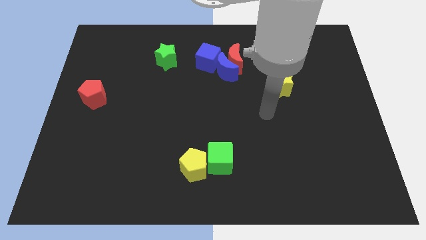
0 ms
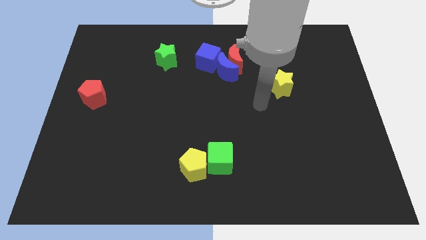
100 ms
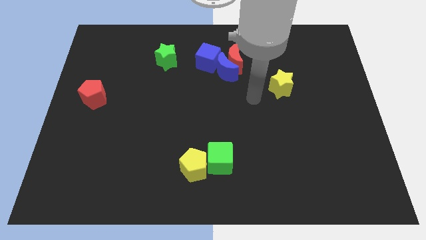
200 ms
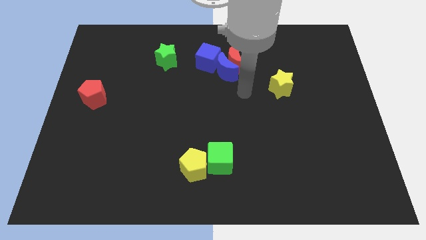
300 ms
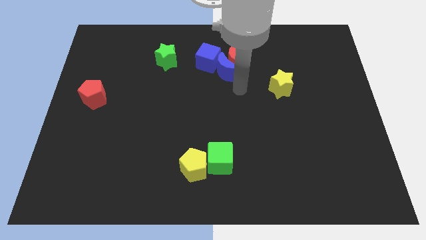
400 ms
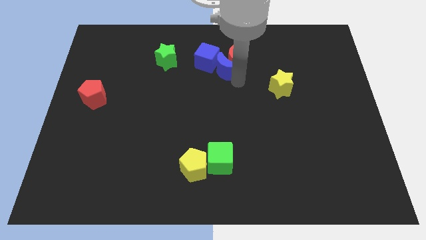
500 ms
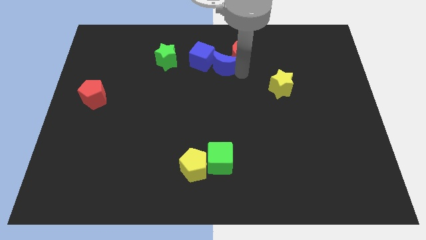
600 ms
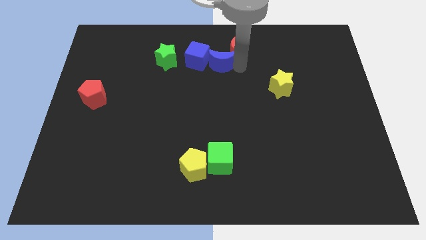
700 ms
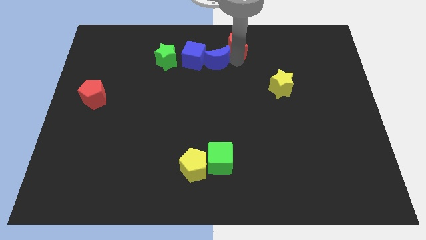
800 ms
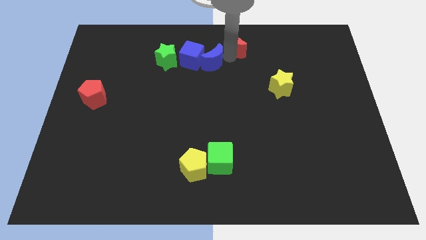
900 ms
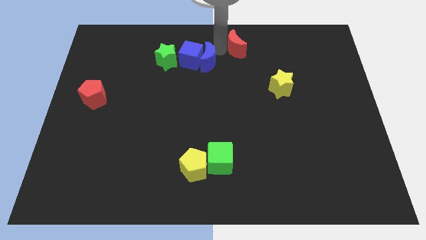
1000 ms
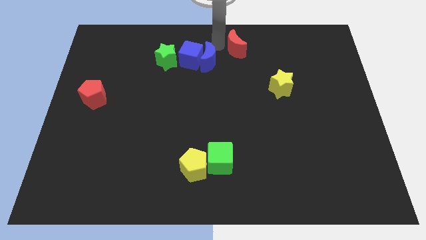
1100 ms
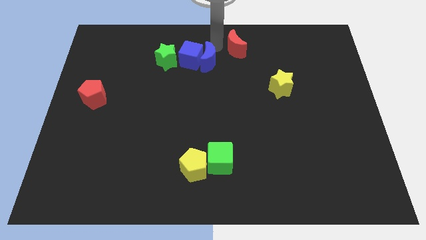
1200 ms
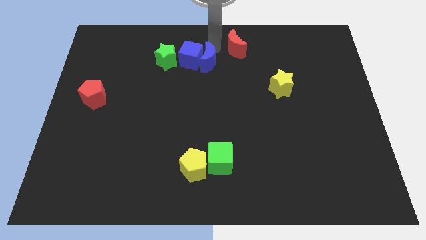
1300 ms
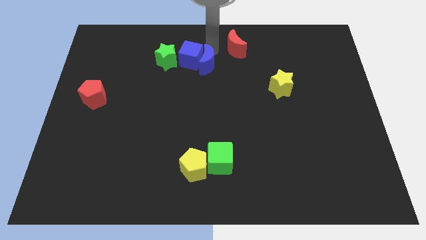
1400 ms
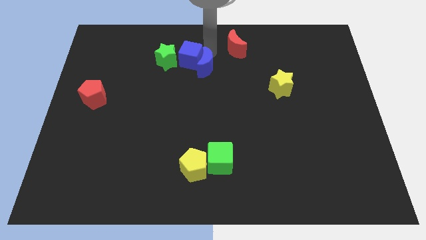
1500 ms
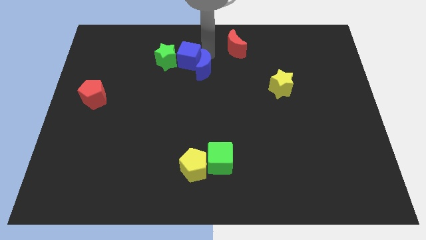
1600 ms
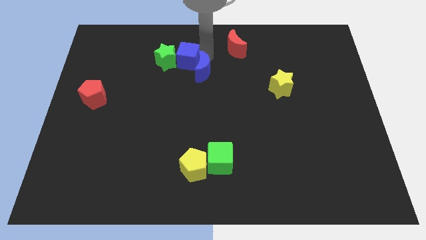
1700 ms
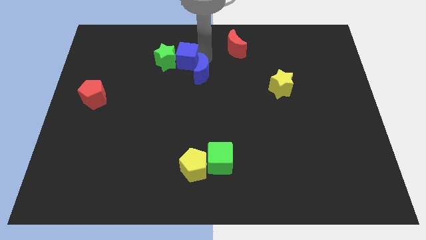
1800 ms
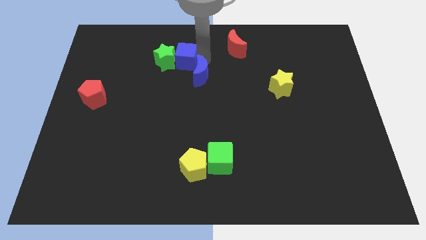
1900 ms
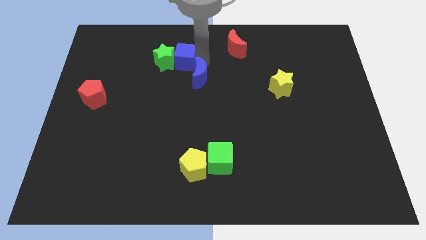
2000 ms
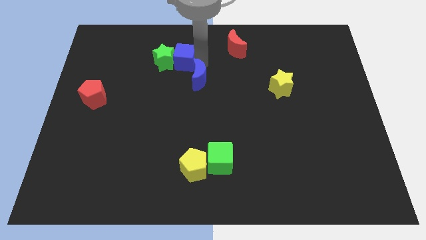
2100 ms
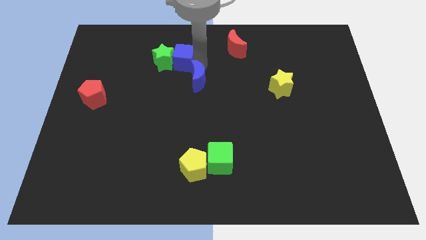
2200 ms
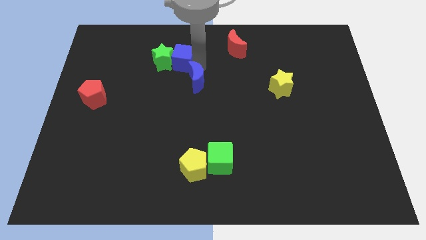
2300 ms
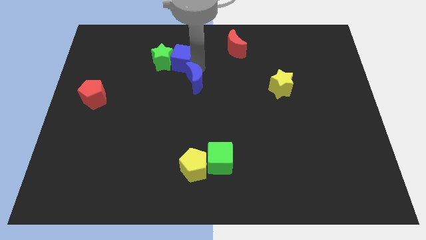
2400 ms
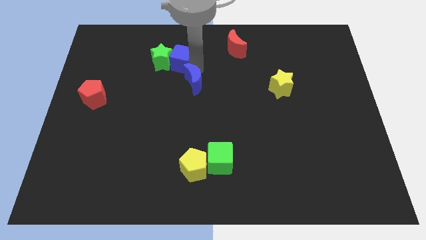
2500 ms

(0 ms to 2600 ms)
separate the blue moon from the red moon and blue cube

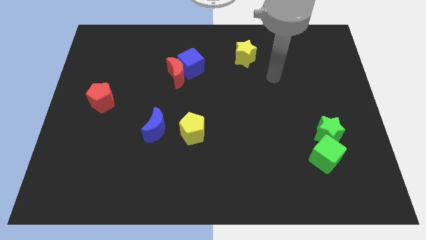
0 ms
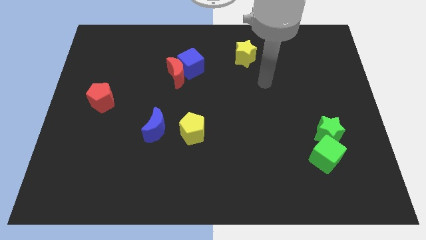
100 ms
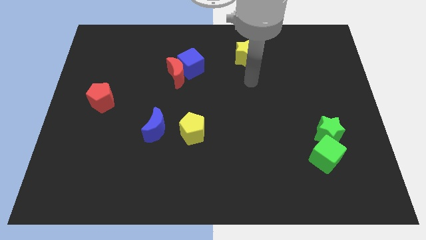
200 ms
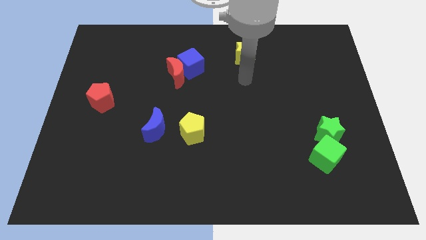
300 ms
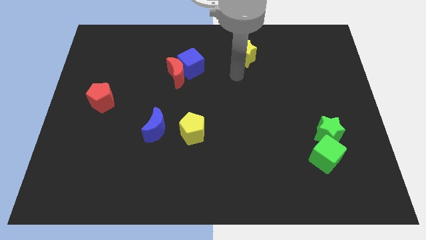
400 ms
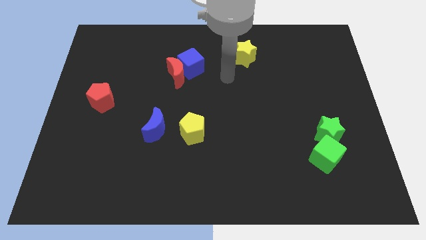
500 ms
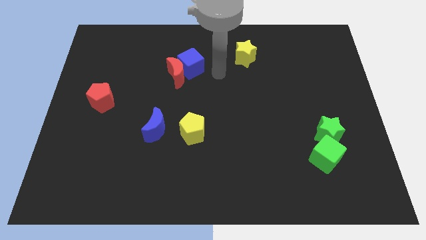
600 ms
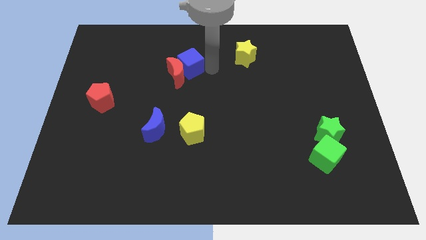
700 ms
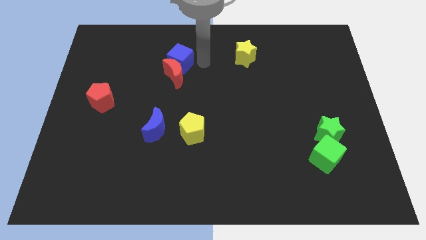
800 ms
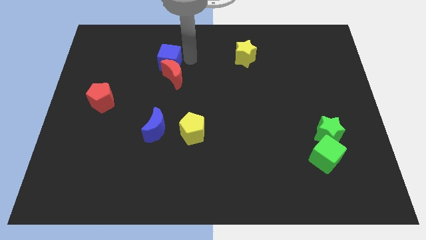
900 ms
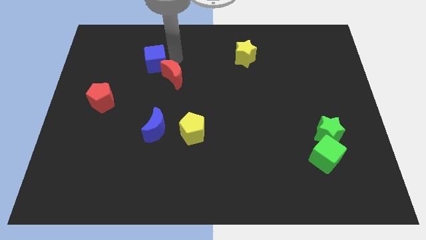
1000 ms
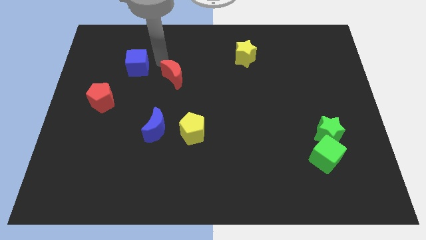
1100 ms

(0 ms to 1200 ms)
pull the red moon apart from the blue cube

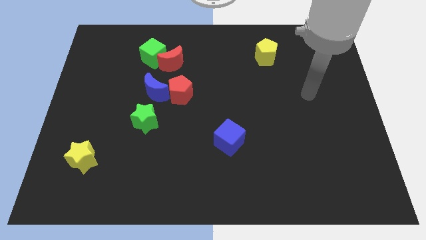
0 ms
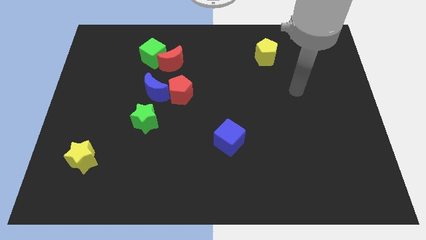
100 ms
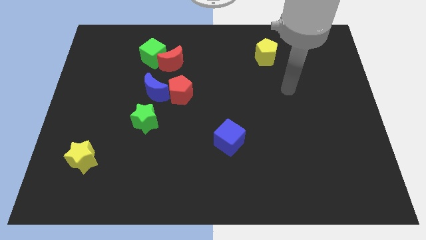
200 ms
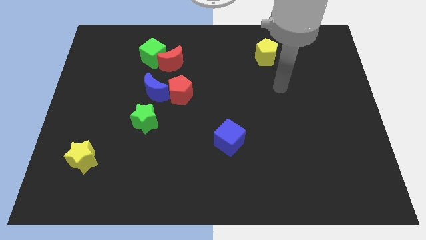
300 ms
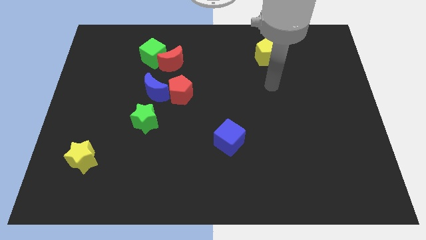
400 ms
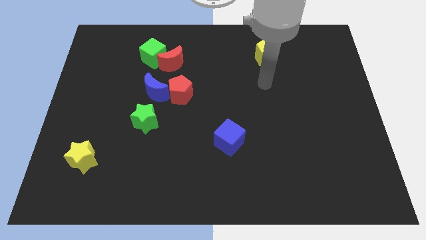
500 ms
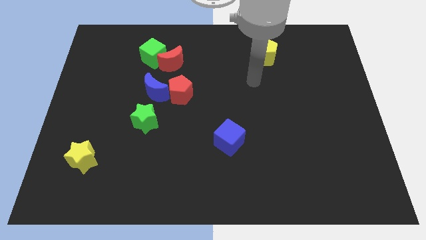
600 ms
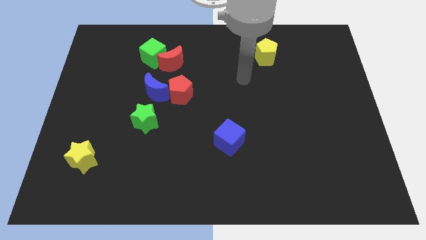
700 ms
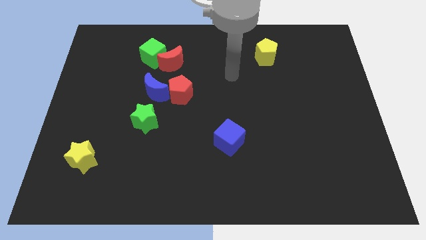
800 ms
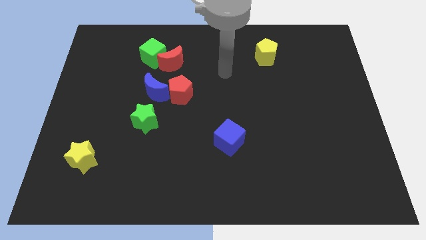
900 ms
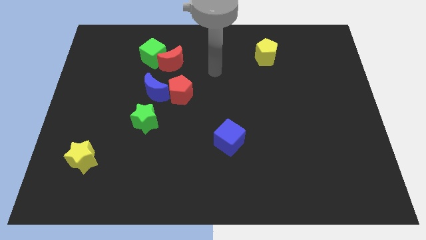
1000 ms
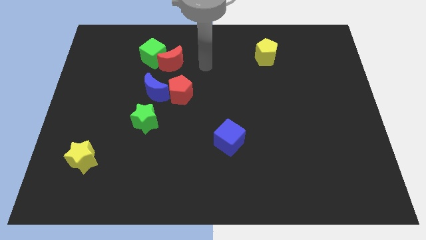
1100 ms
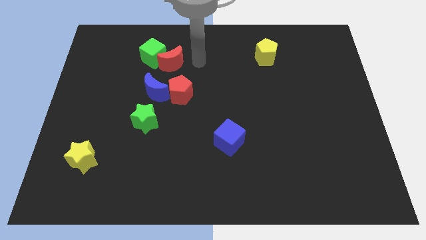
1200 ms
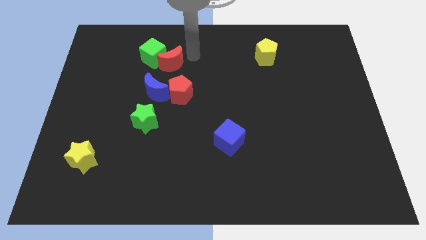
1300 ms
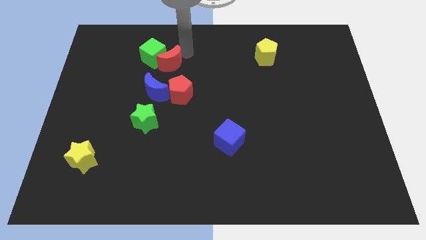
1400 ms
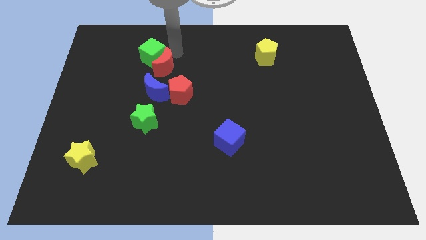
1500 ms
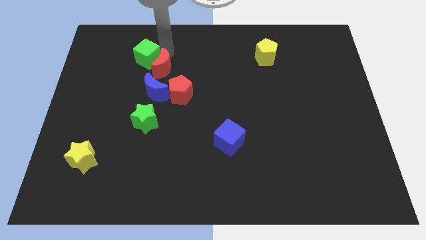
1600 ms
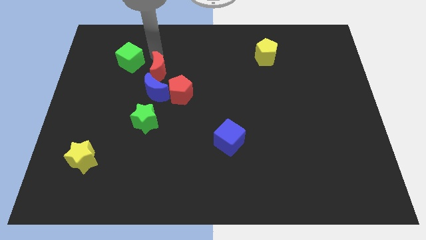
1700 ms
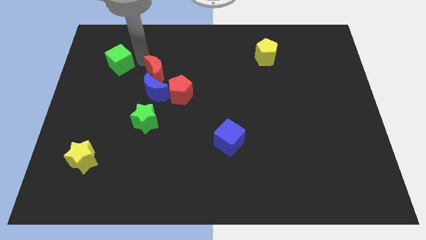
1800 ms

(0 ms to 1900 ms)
separate the red moon from the green cube

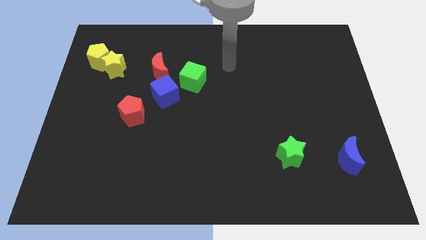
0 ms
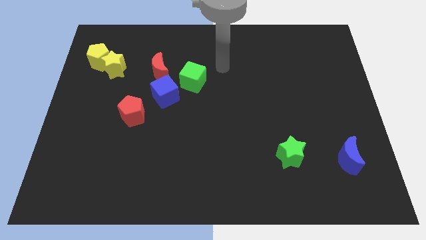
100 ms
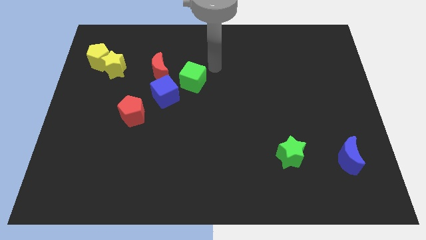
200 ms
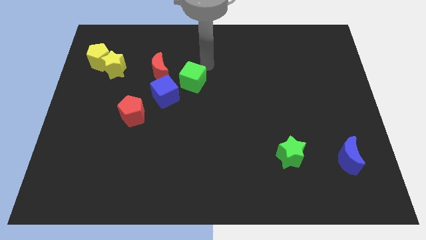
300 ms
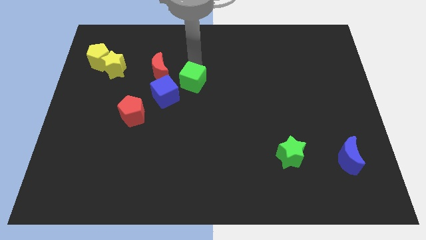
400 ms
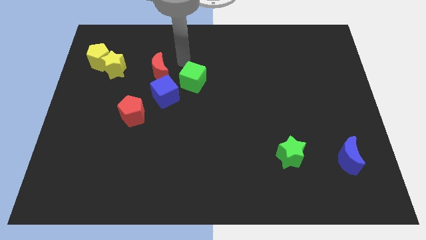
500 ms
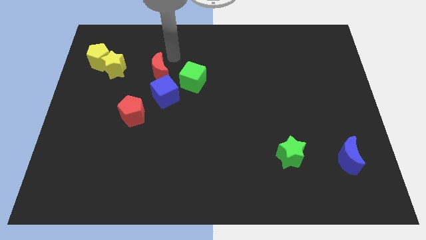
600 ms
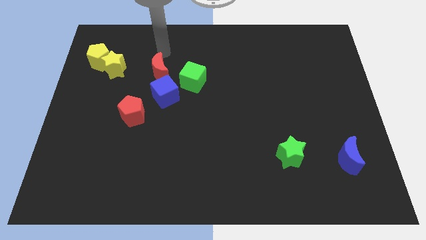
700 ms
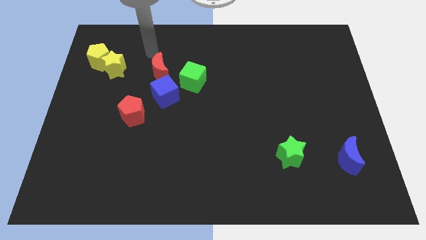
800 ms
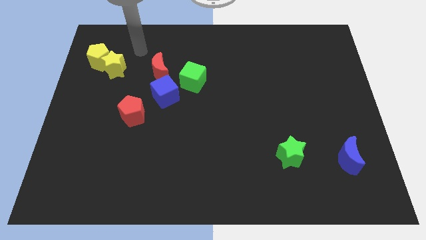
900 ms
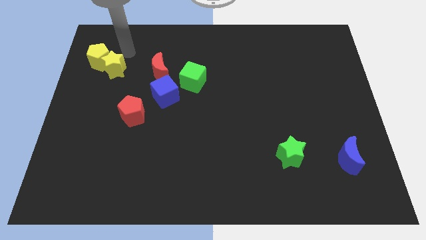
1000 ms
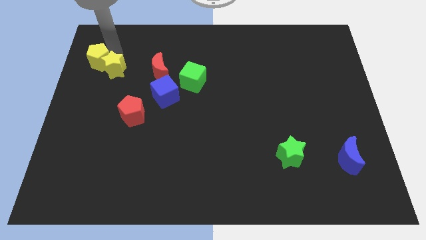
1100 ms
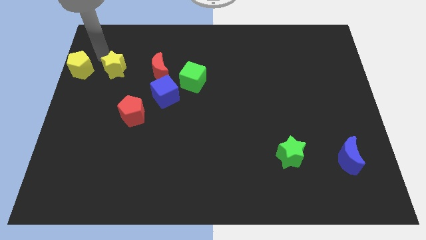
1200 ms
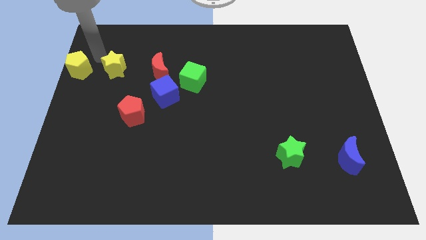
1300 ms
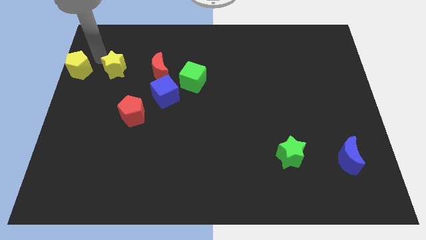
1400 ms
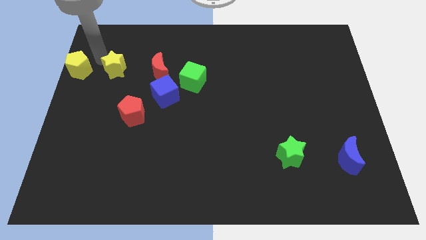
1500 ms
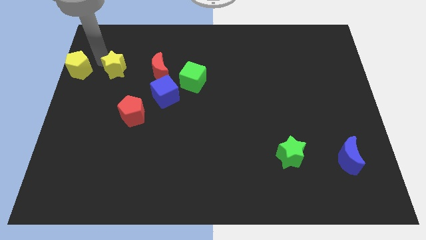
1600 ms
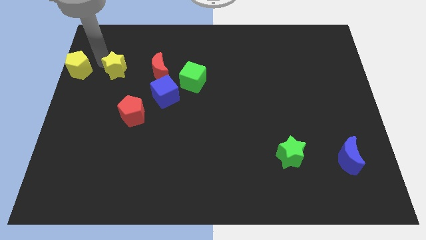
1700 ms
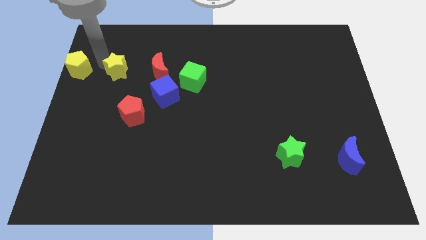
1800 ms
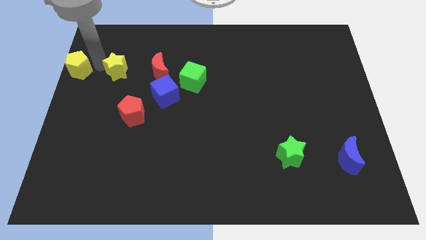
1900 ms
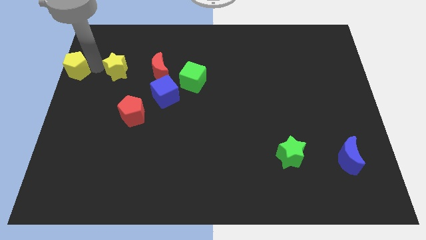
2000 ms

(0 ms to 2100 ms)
separate the yellow star from the yellow pentagon

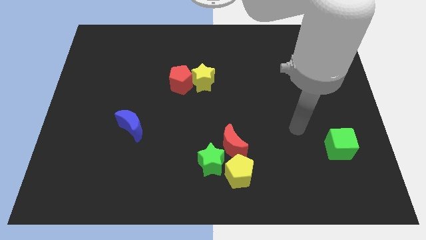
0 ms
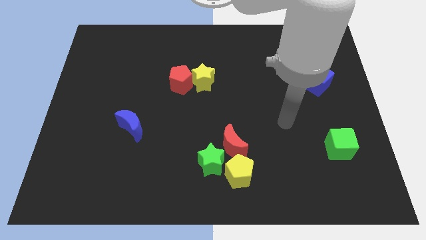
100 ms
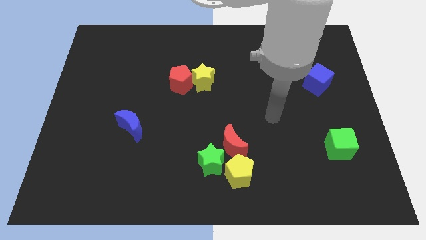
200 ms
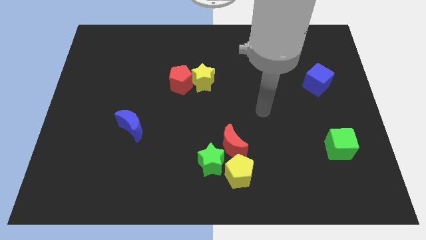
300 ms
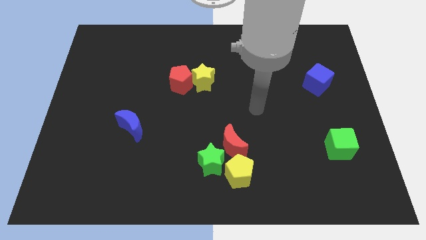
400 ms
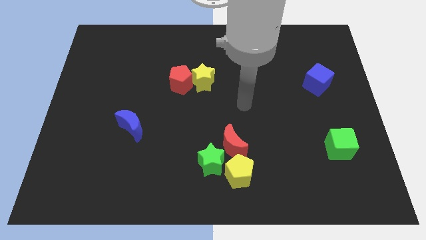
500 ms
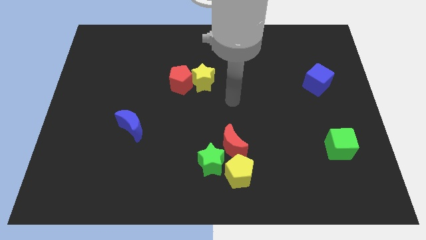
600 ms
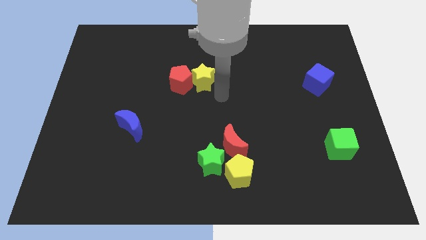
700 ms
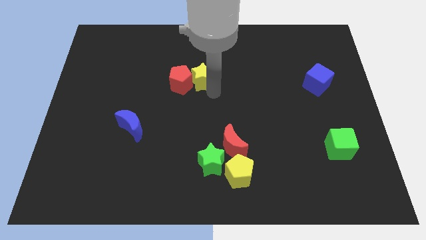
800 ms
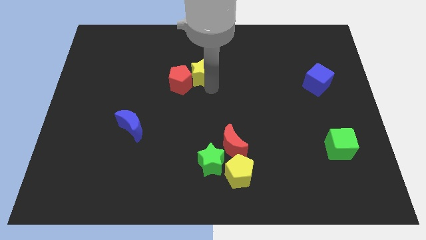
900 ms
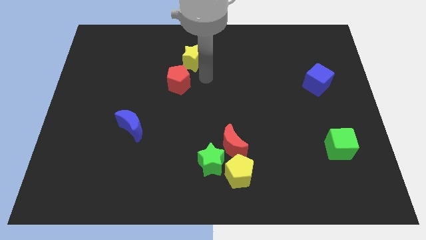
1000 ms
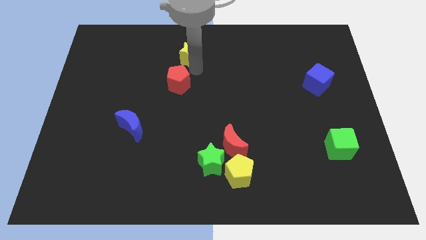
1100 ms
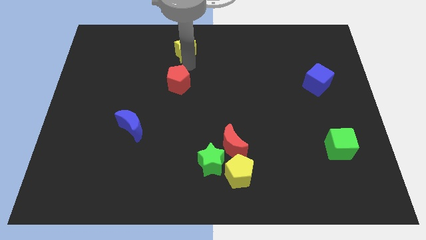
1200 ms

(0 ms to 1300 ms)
pull the red pentagon apart from the yellow star
